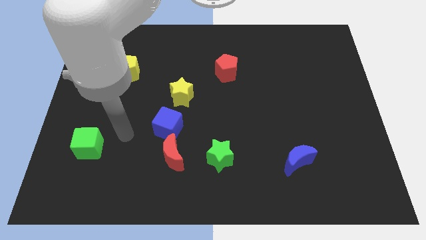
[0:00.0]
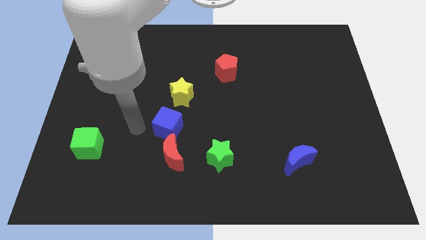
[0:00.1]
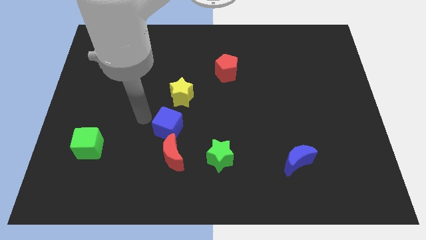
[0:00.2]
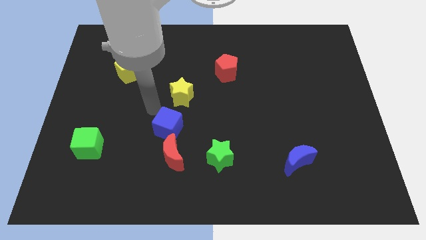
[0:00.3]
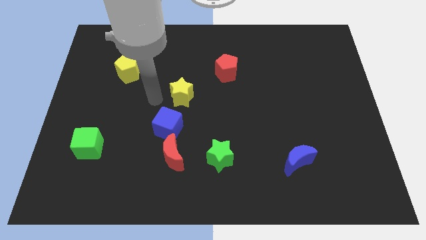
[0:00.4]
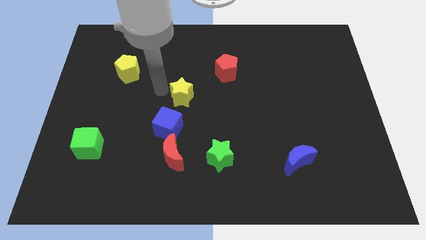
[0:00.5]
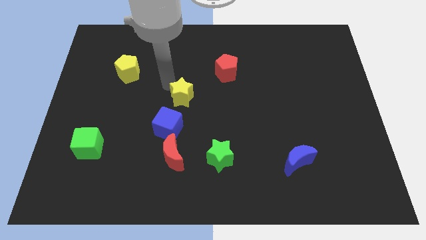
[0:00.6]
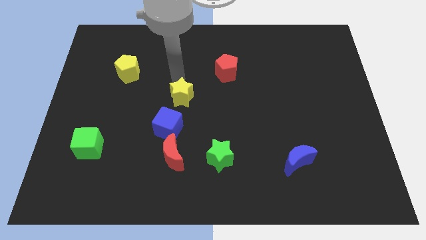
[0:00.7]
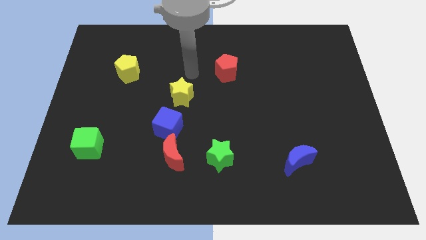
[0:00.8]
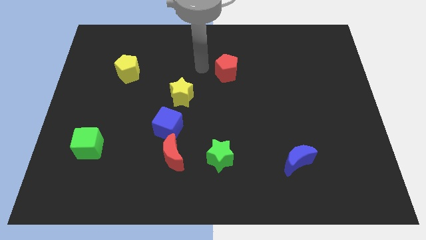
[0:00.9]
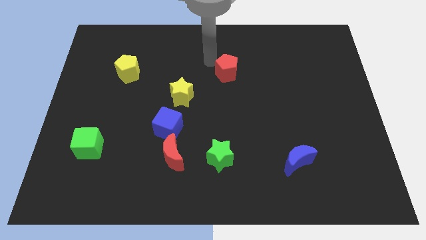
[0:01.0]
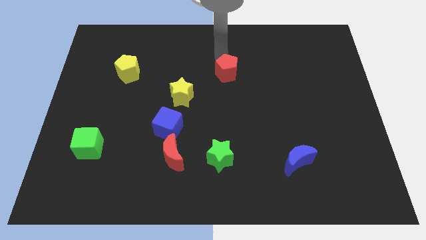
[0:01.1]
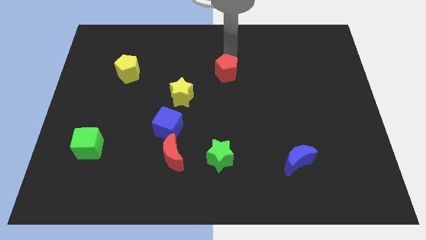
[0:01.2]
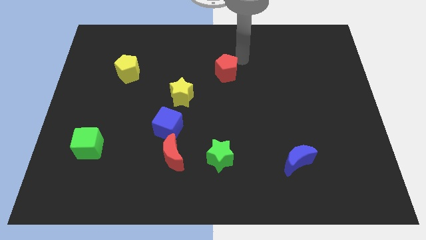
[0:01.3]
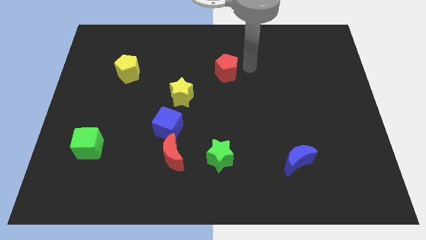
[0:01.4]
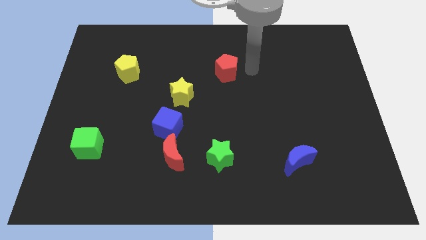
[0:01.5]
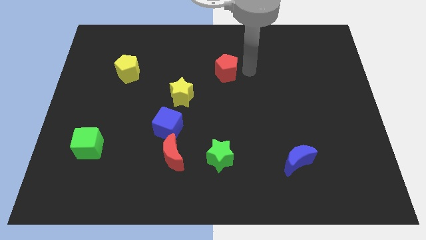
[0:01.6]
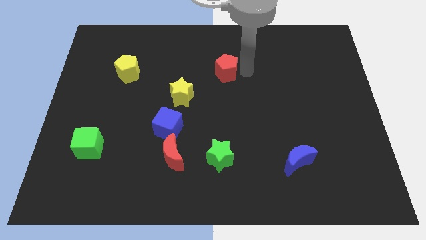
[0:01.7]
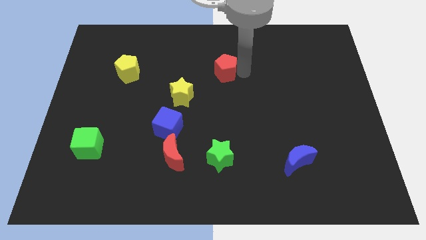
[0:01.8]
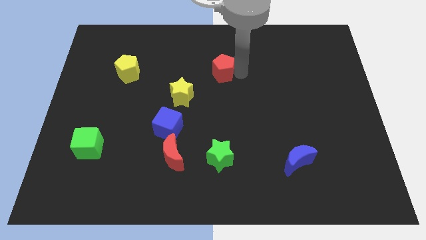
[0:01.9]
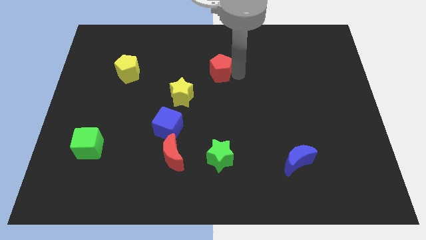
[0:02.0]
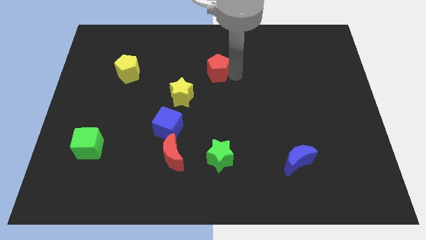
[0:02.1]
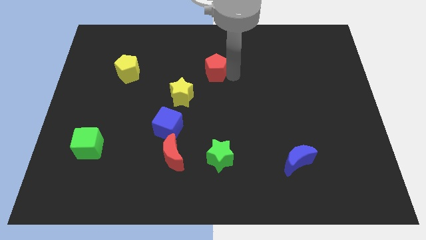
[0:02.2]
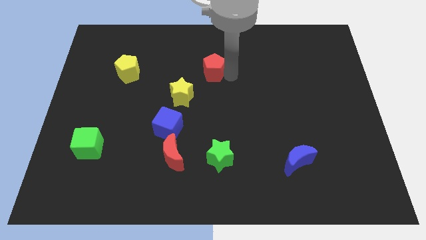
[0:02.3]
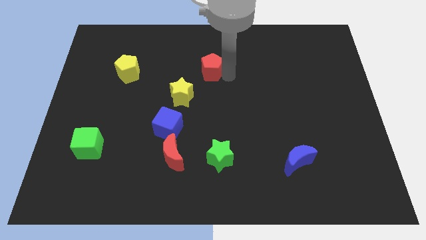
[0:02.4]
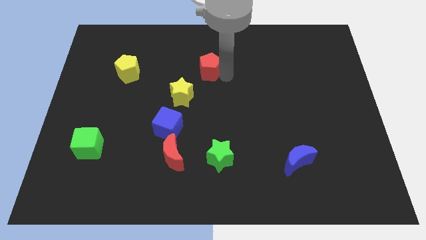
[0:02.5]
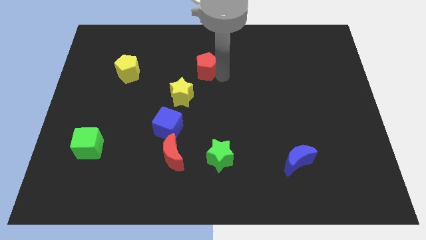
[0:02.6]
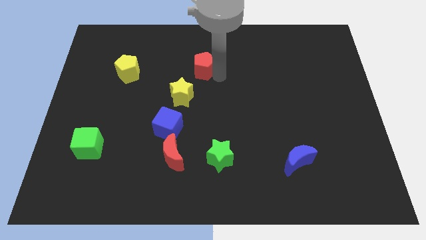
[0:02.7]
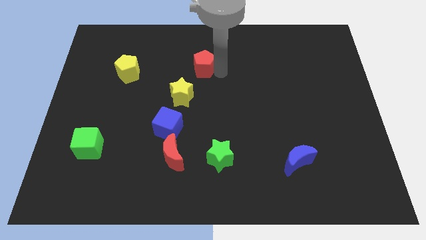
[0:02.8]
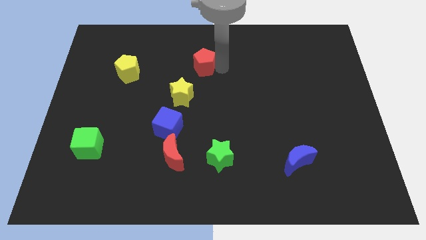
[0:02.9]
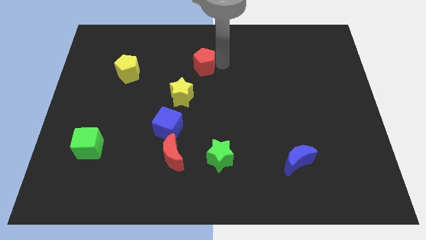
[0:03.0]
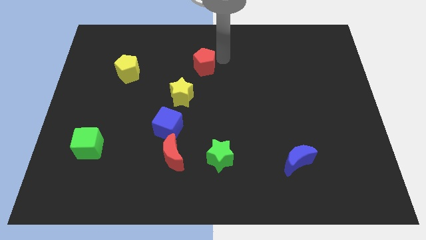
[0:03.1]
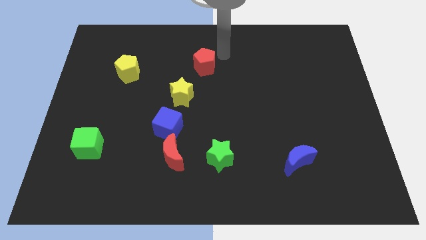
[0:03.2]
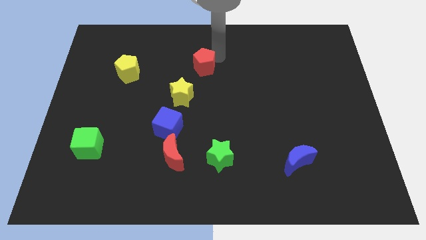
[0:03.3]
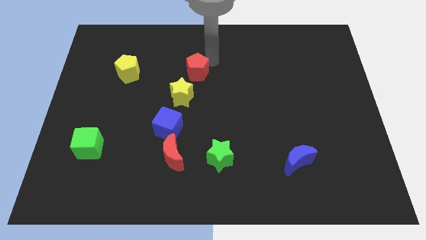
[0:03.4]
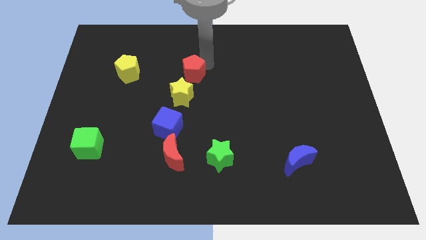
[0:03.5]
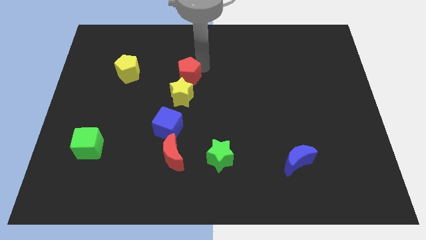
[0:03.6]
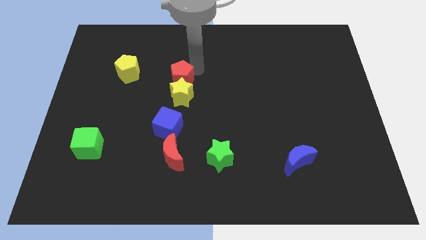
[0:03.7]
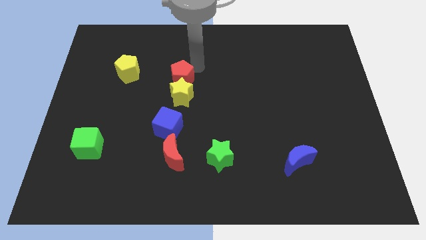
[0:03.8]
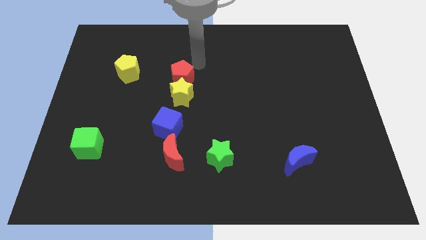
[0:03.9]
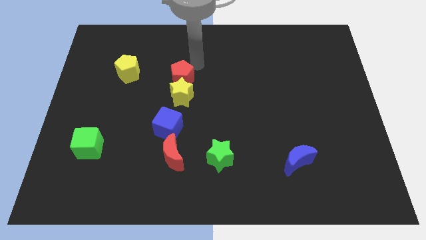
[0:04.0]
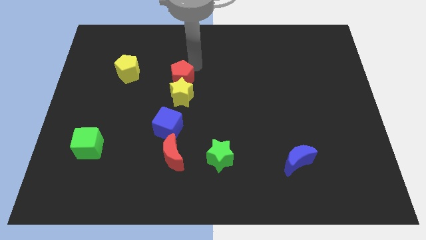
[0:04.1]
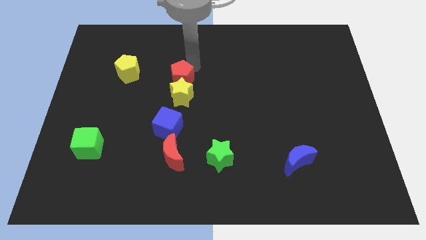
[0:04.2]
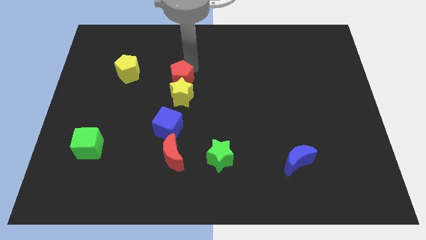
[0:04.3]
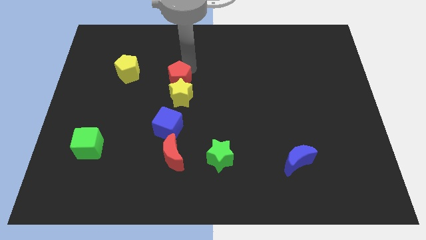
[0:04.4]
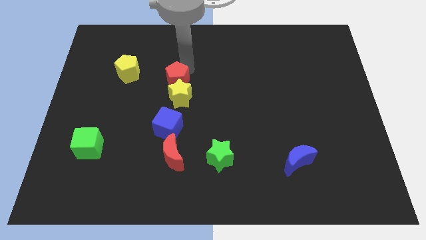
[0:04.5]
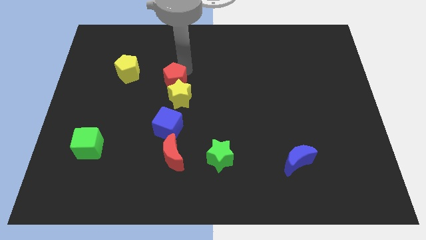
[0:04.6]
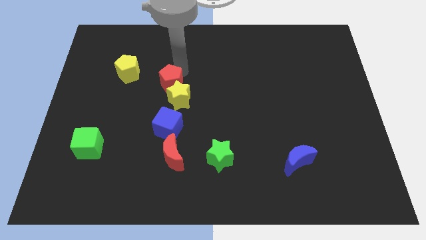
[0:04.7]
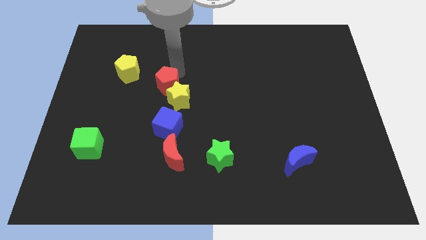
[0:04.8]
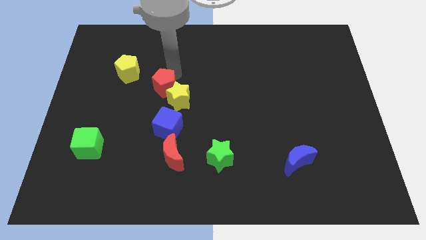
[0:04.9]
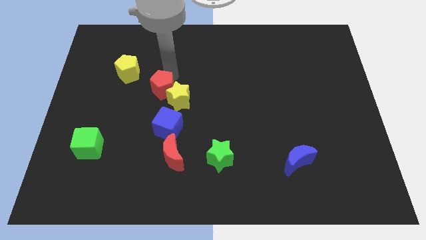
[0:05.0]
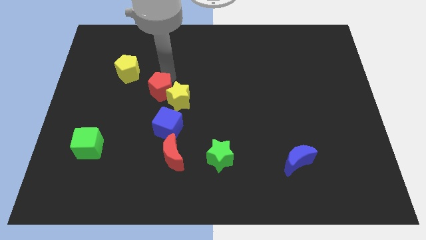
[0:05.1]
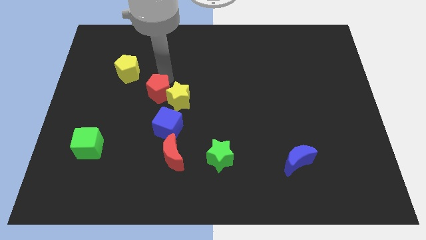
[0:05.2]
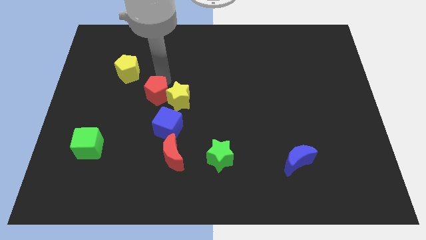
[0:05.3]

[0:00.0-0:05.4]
push the red pentagon to the top left of the blue cube

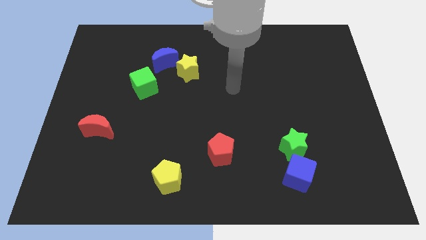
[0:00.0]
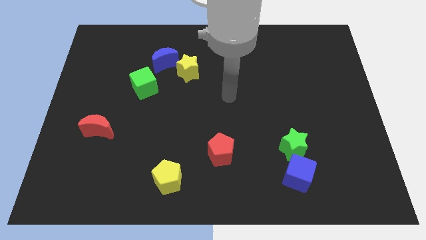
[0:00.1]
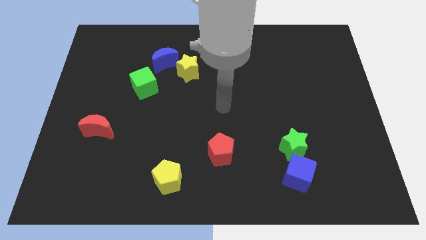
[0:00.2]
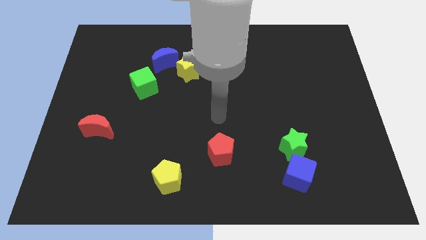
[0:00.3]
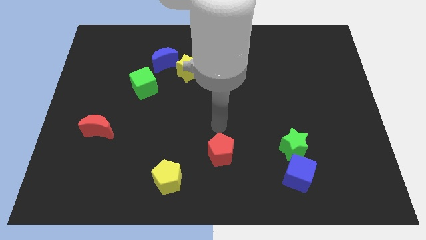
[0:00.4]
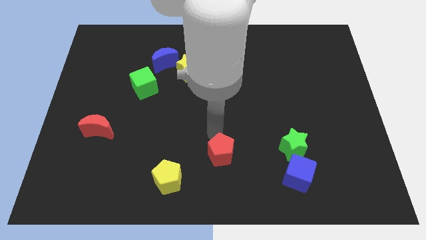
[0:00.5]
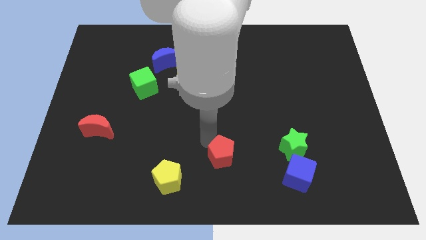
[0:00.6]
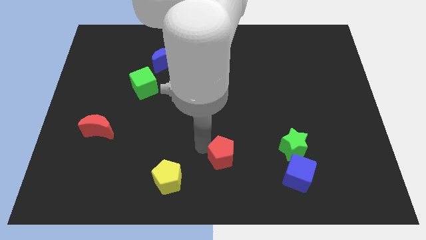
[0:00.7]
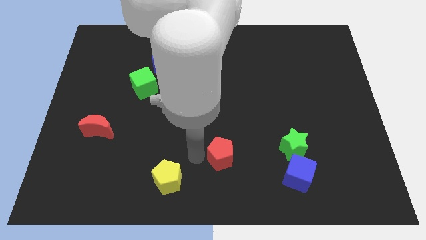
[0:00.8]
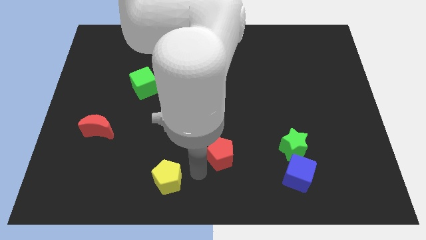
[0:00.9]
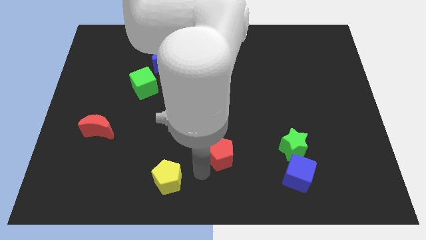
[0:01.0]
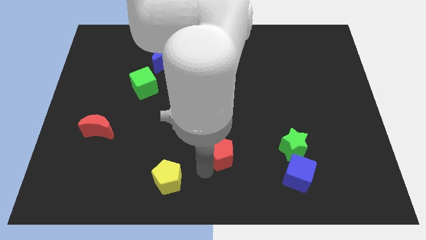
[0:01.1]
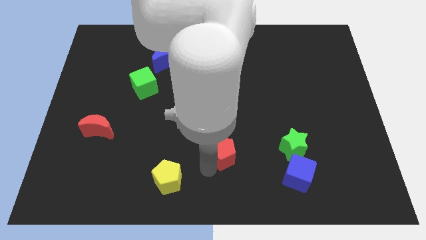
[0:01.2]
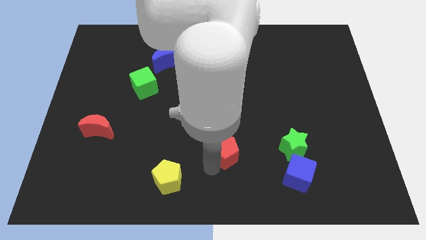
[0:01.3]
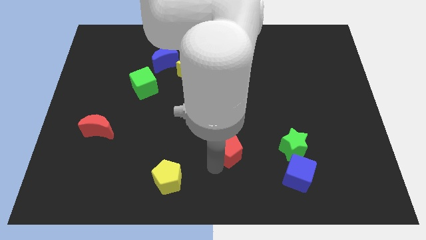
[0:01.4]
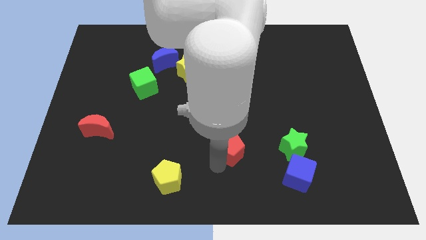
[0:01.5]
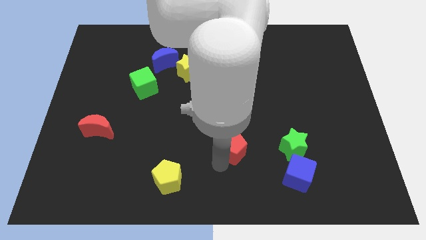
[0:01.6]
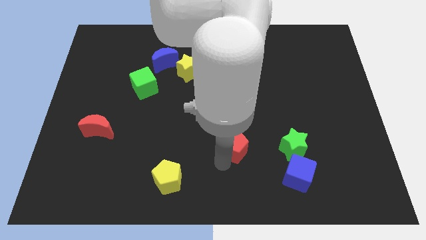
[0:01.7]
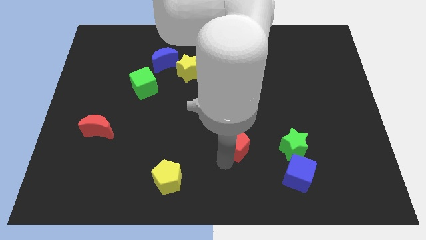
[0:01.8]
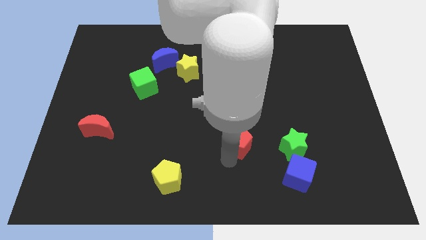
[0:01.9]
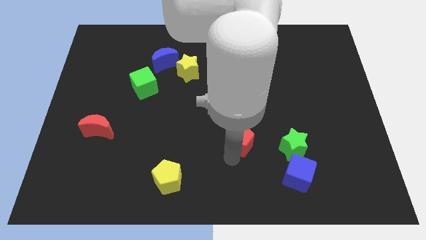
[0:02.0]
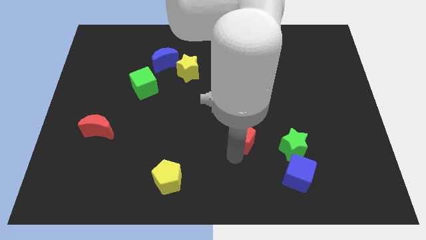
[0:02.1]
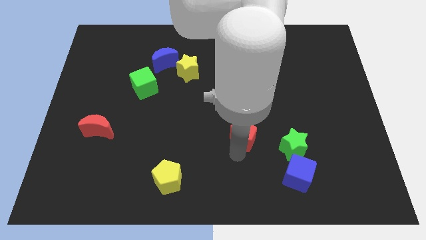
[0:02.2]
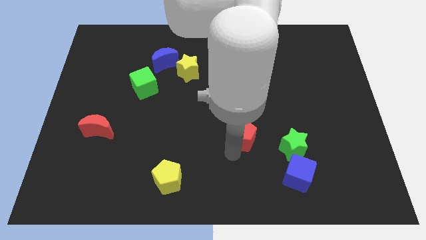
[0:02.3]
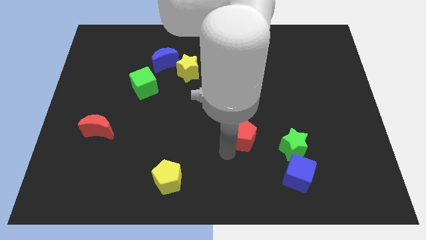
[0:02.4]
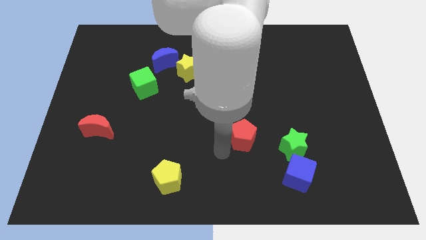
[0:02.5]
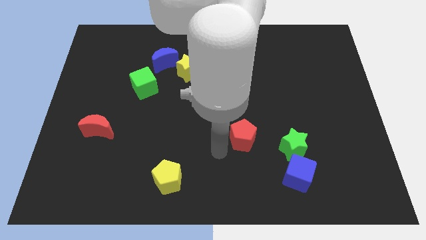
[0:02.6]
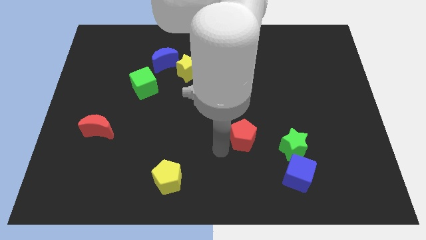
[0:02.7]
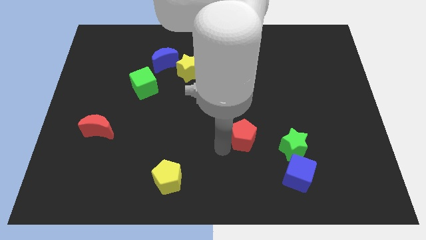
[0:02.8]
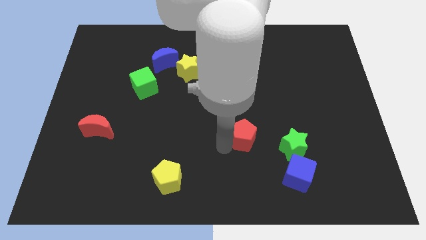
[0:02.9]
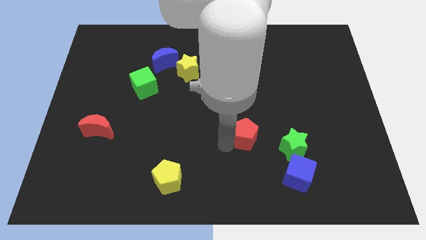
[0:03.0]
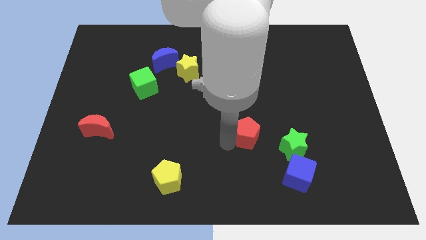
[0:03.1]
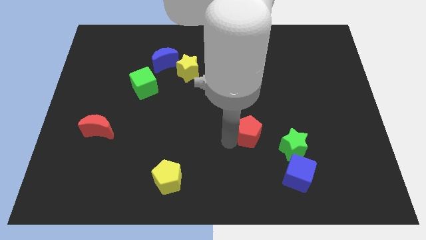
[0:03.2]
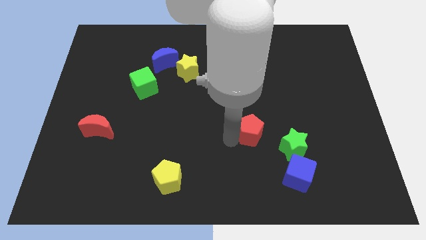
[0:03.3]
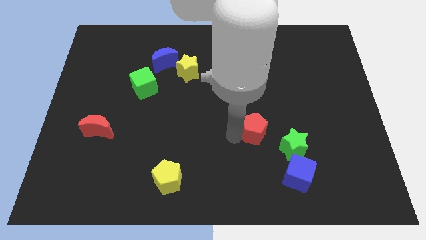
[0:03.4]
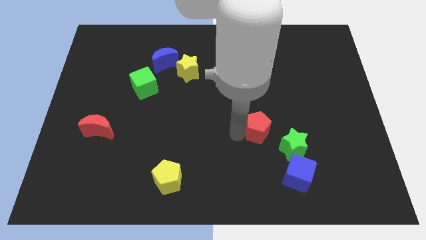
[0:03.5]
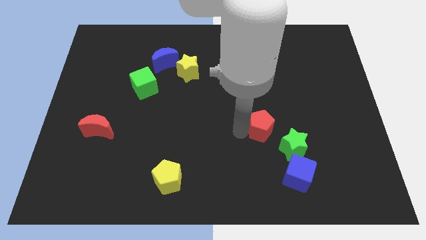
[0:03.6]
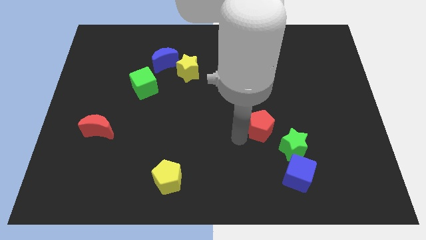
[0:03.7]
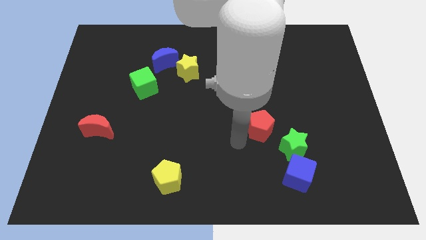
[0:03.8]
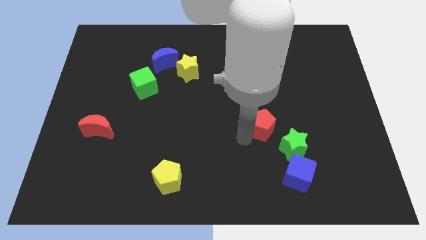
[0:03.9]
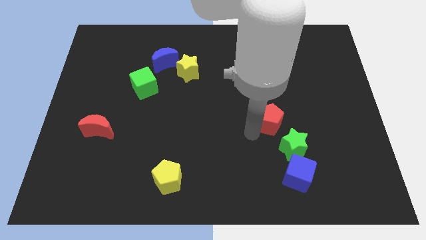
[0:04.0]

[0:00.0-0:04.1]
push the red pentagon above the green star
